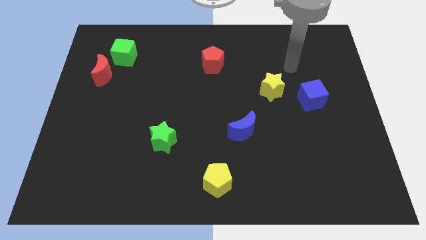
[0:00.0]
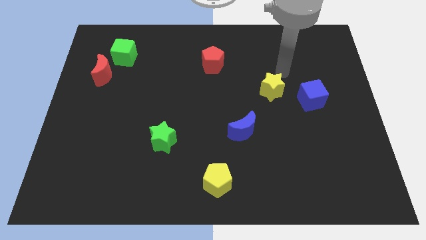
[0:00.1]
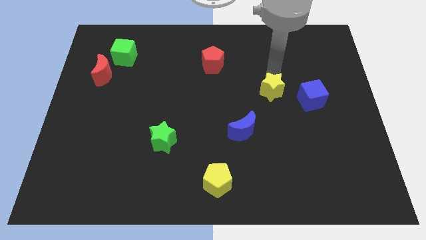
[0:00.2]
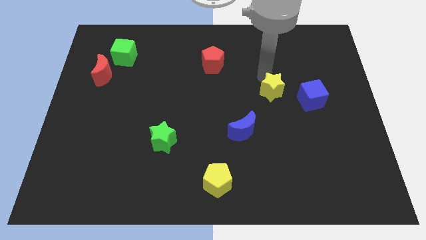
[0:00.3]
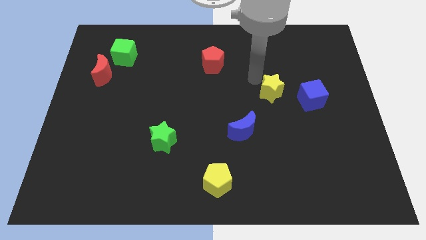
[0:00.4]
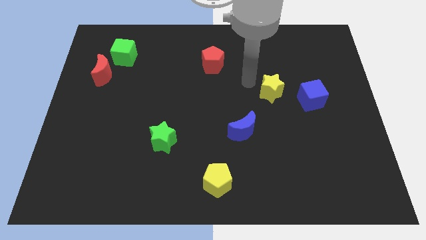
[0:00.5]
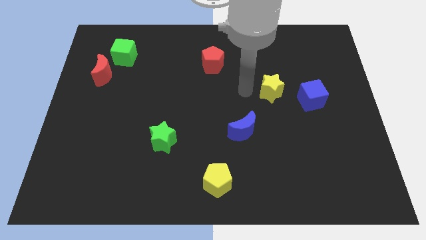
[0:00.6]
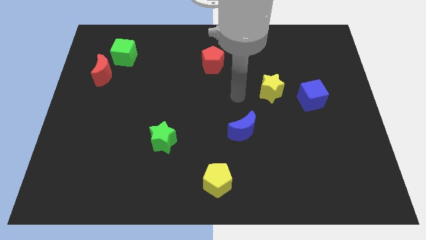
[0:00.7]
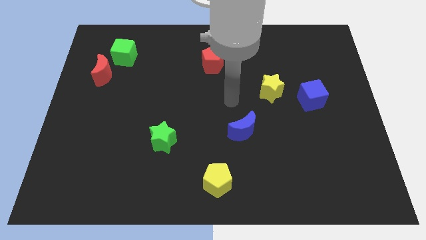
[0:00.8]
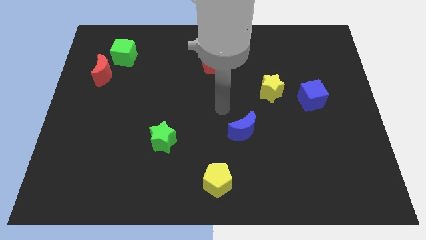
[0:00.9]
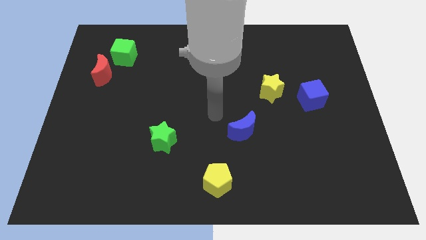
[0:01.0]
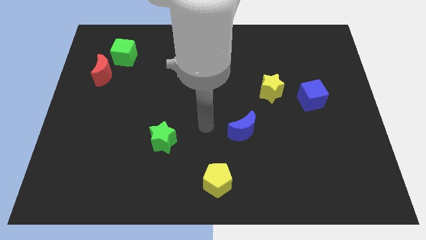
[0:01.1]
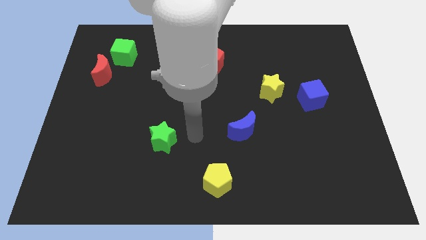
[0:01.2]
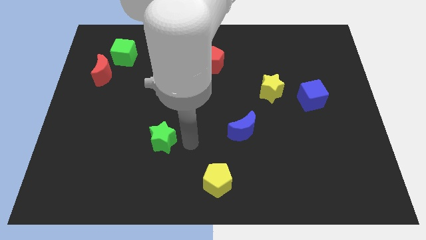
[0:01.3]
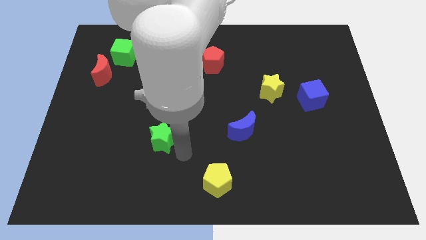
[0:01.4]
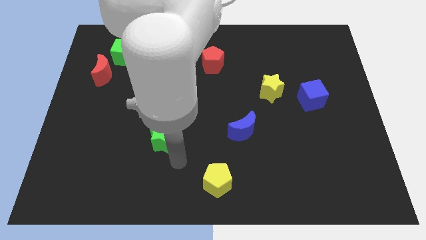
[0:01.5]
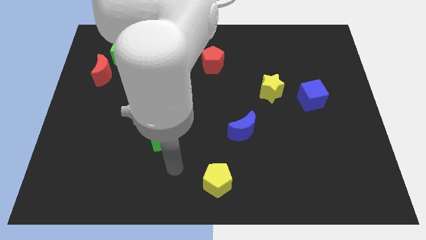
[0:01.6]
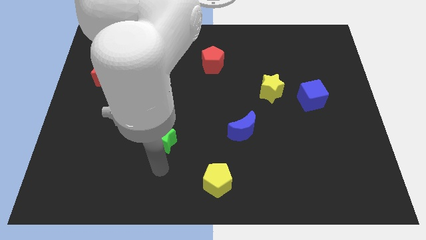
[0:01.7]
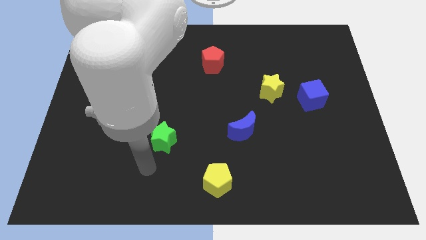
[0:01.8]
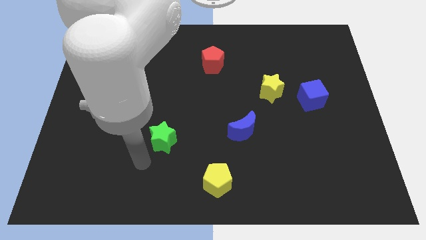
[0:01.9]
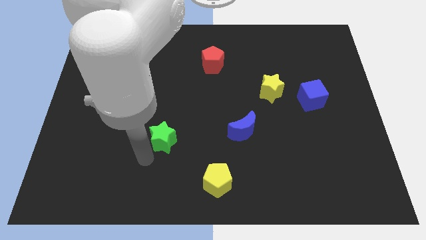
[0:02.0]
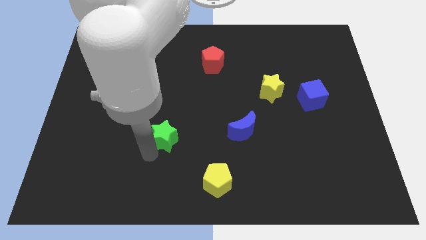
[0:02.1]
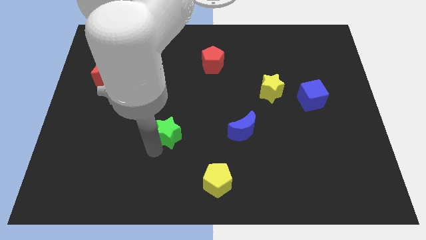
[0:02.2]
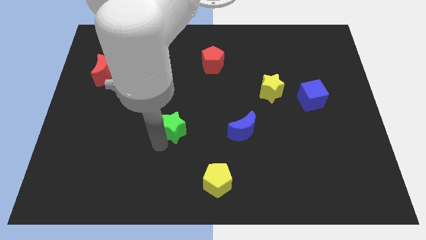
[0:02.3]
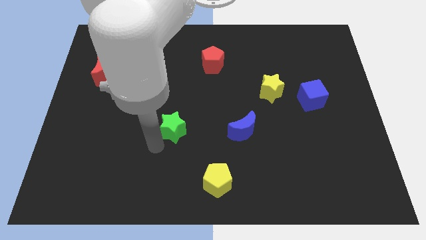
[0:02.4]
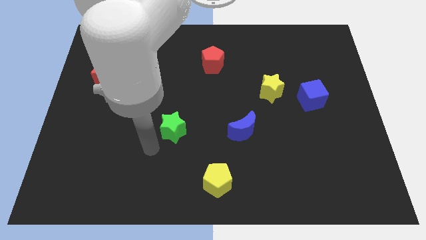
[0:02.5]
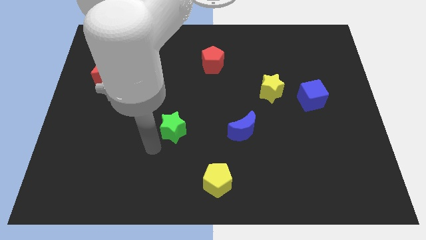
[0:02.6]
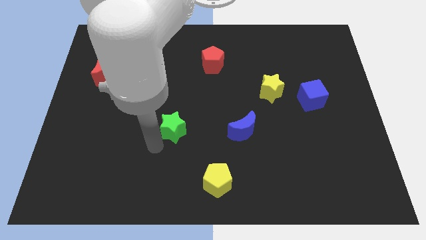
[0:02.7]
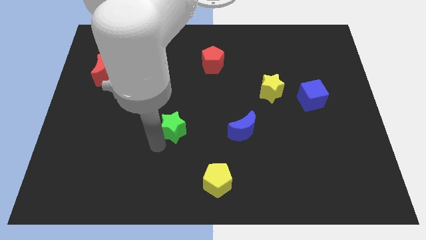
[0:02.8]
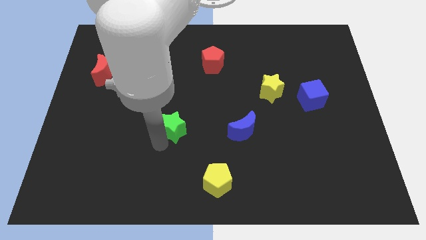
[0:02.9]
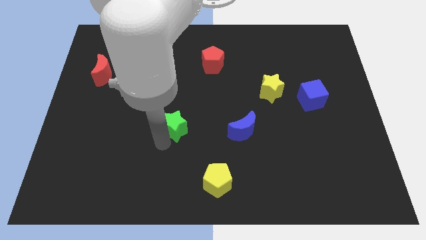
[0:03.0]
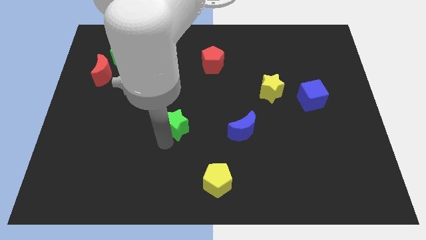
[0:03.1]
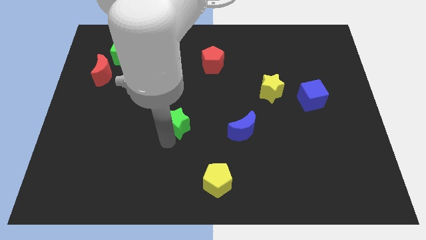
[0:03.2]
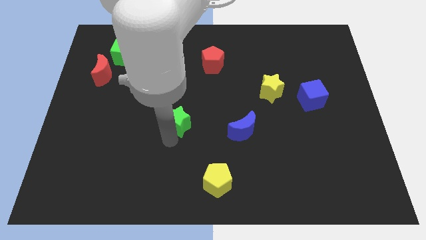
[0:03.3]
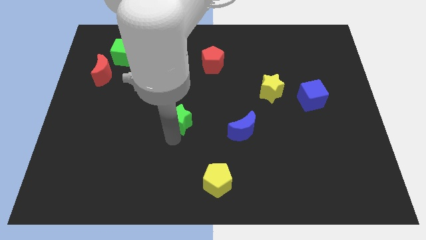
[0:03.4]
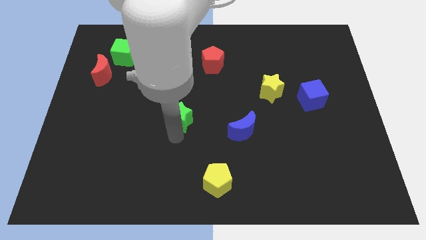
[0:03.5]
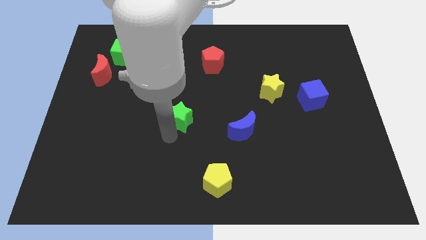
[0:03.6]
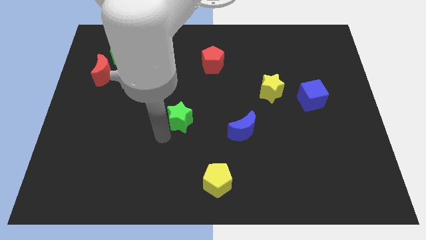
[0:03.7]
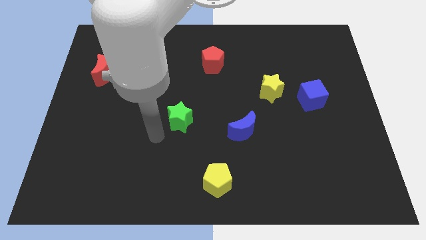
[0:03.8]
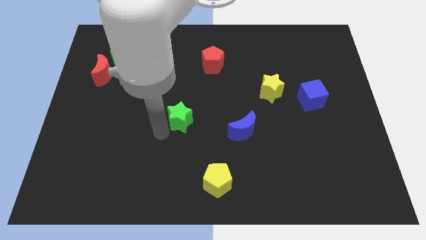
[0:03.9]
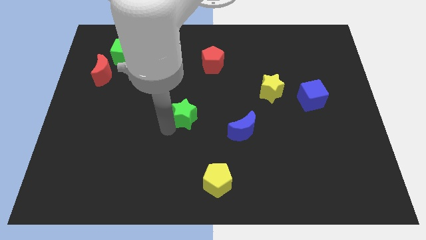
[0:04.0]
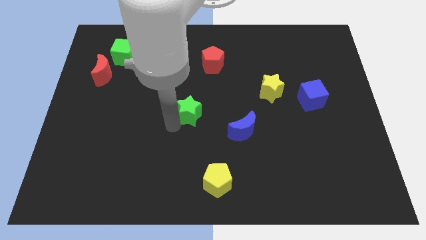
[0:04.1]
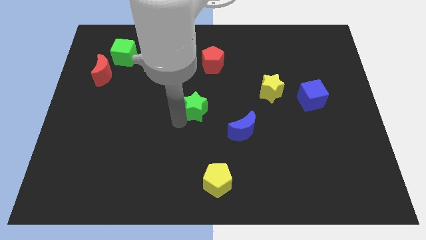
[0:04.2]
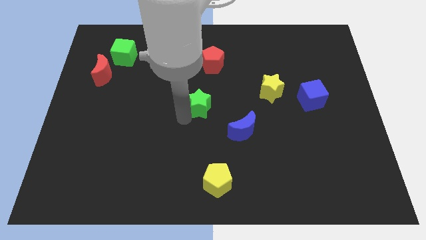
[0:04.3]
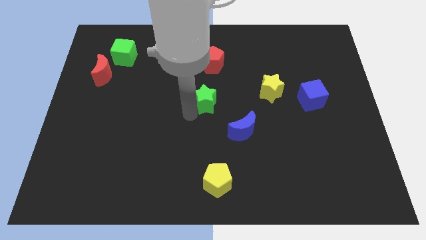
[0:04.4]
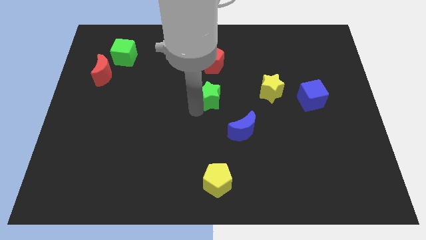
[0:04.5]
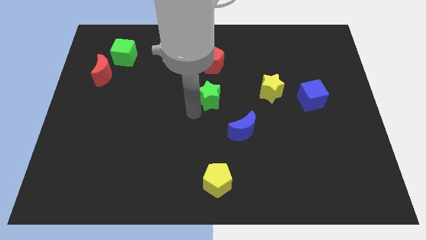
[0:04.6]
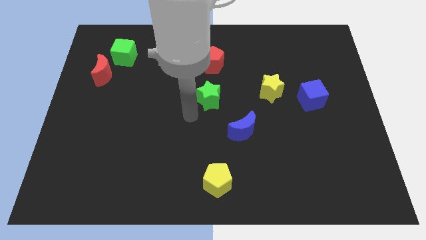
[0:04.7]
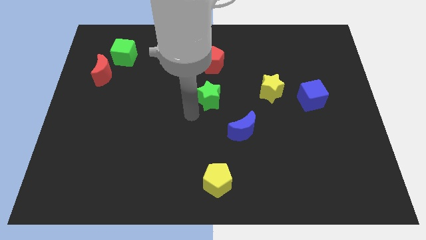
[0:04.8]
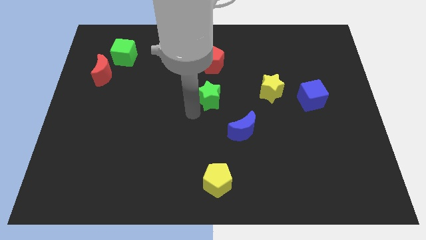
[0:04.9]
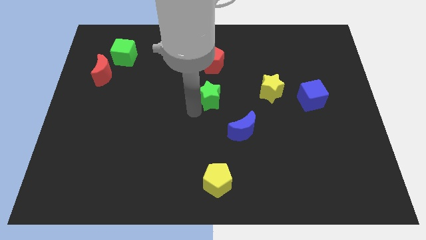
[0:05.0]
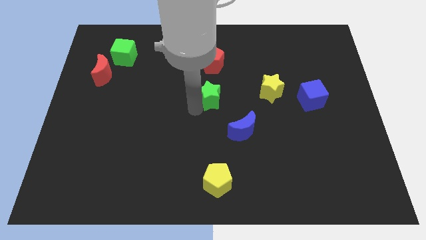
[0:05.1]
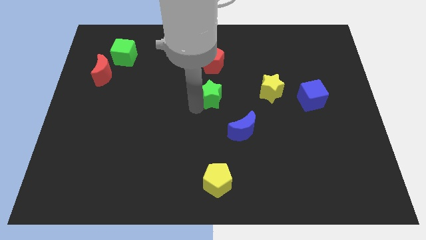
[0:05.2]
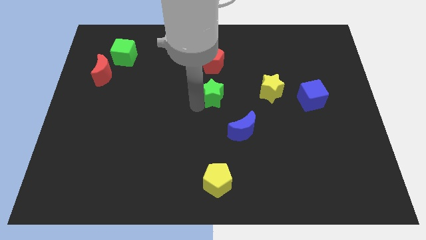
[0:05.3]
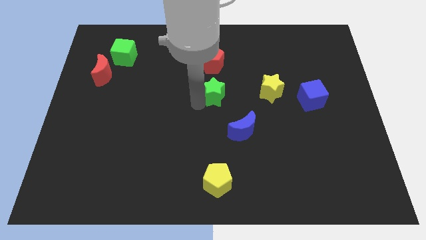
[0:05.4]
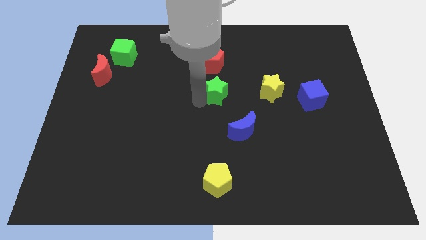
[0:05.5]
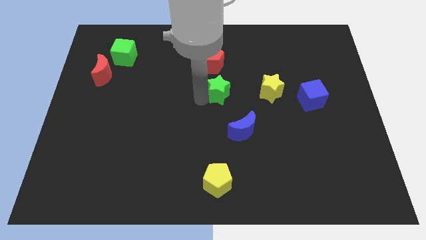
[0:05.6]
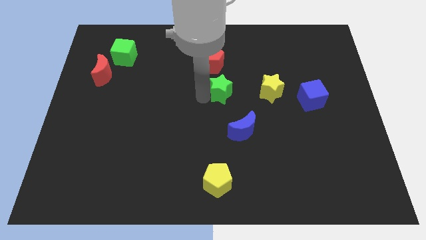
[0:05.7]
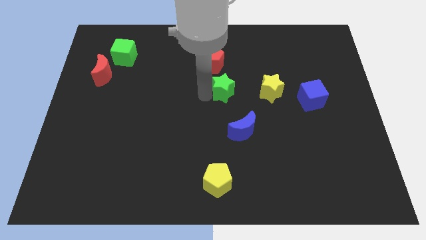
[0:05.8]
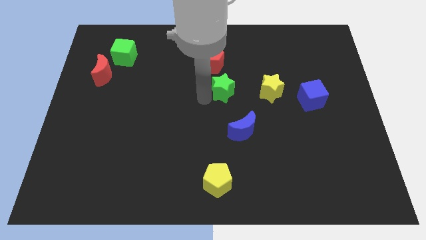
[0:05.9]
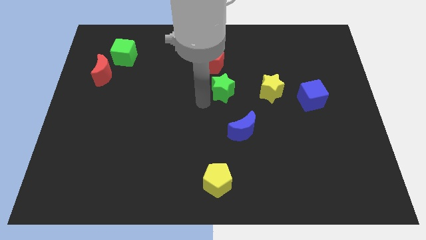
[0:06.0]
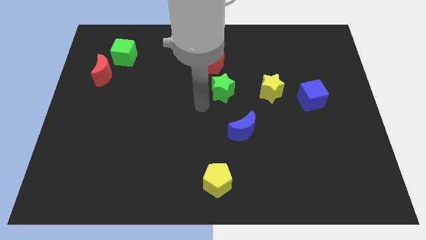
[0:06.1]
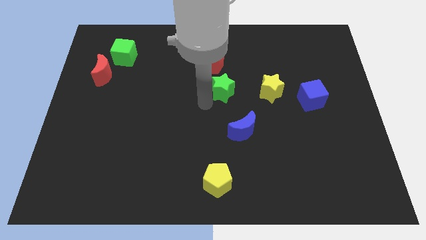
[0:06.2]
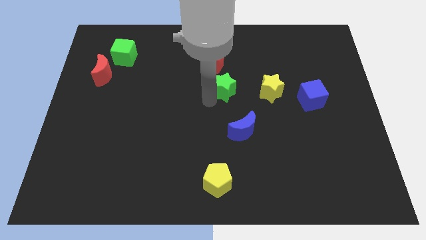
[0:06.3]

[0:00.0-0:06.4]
push the green star upwards and to the right diagonally

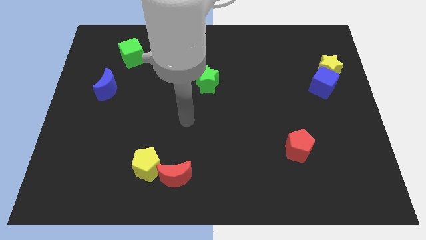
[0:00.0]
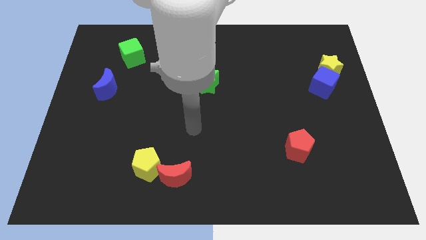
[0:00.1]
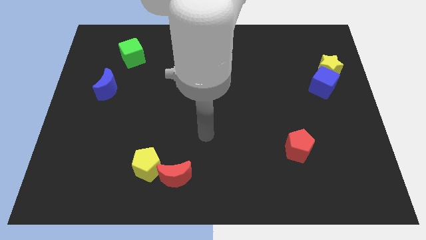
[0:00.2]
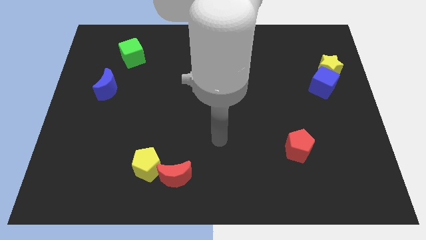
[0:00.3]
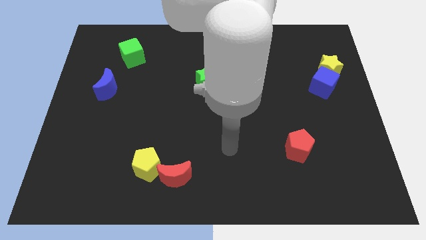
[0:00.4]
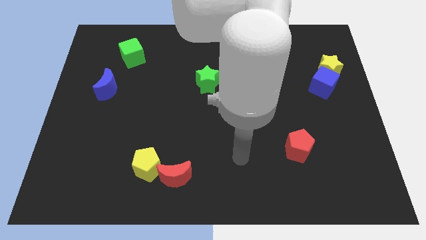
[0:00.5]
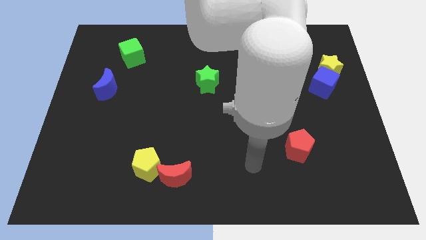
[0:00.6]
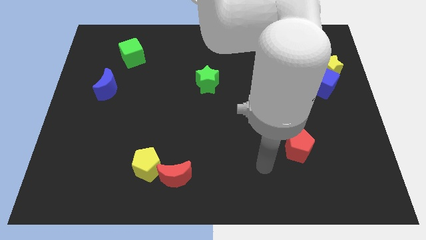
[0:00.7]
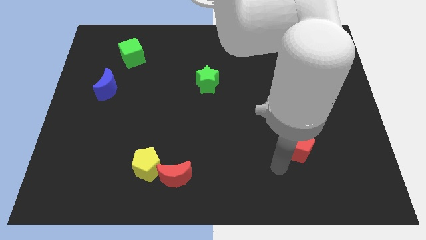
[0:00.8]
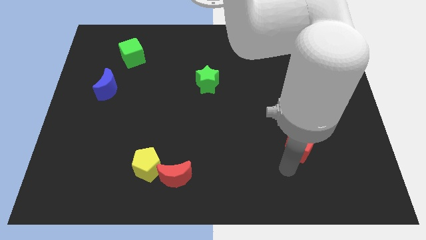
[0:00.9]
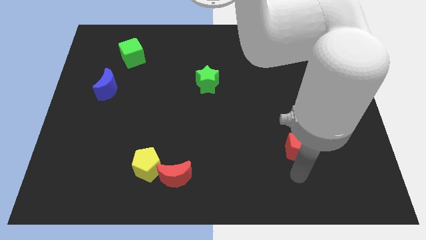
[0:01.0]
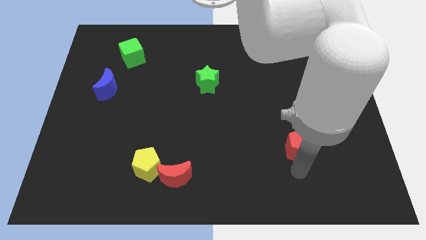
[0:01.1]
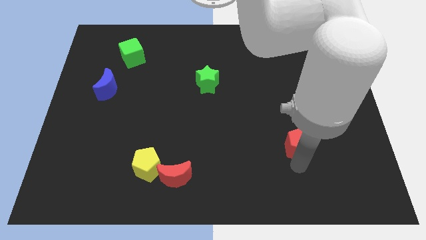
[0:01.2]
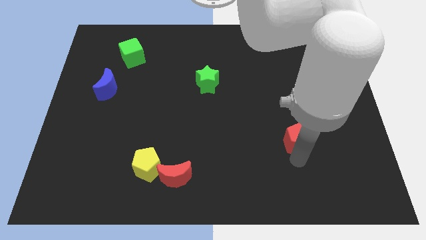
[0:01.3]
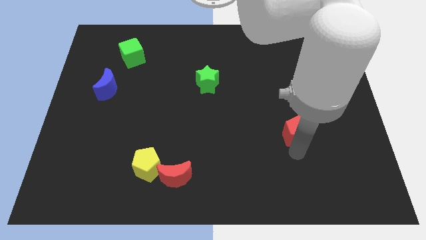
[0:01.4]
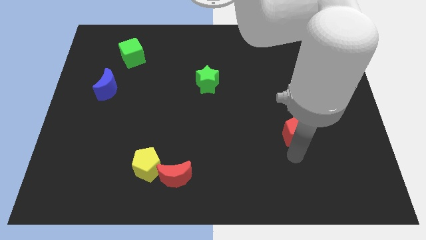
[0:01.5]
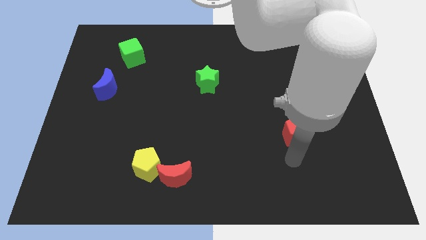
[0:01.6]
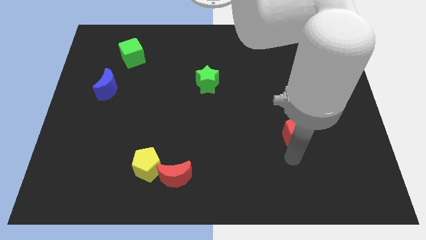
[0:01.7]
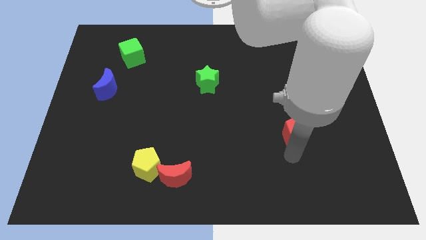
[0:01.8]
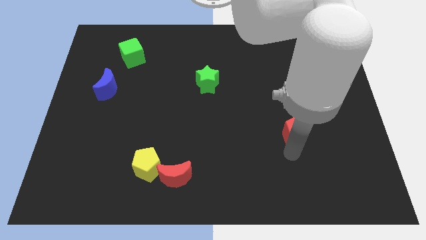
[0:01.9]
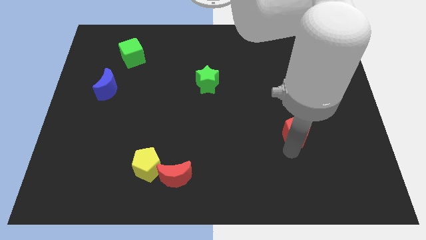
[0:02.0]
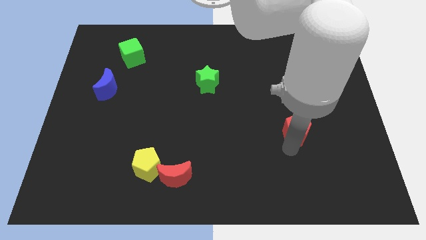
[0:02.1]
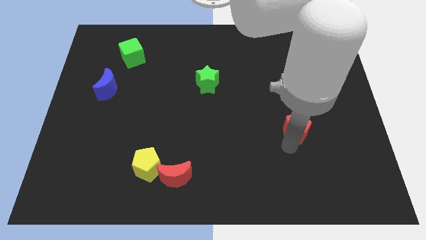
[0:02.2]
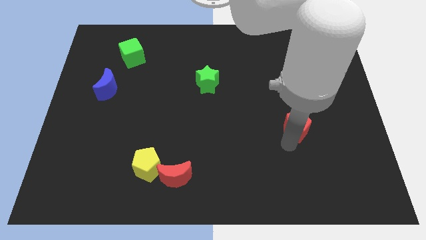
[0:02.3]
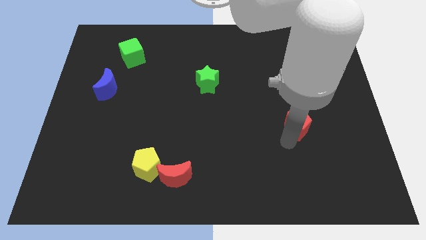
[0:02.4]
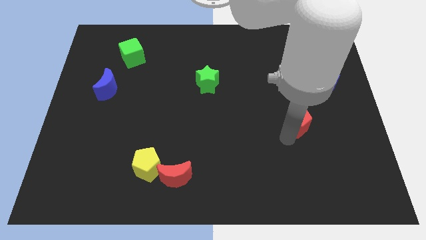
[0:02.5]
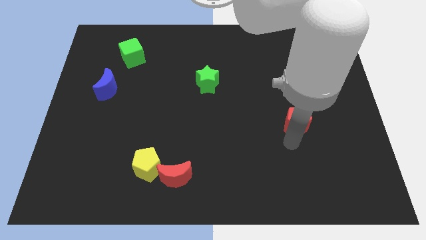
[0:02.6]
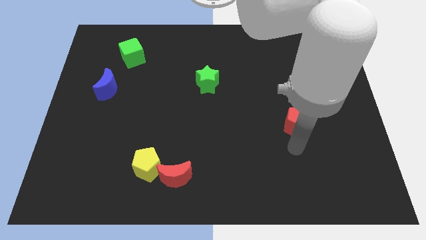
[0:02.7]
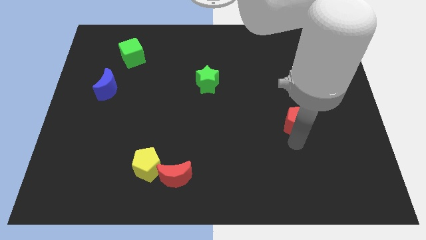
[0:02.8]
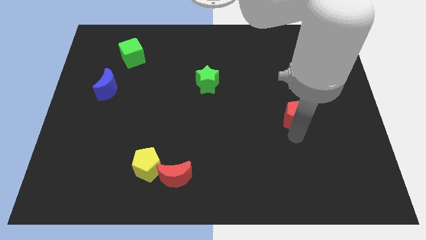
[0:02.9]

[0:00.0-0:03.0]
move the red pentagon a little upwards
